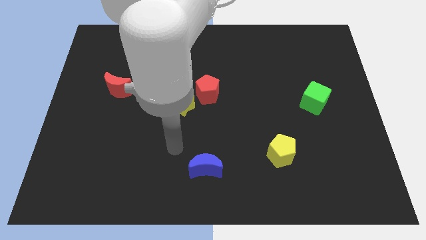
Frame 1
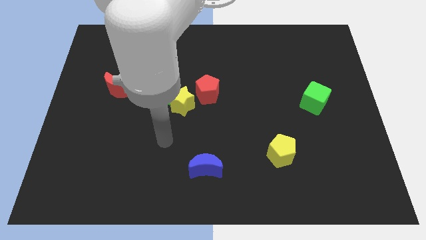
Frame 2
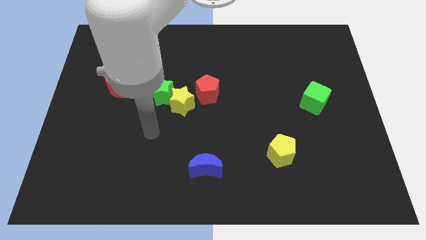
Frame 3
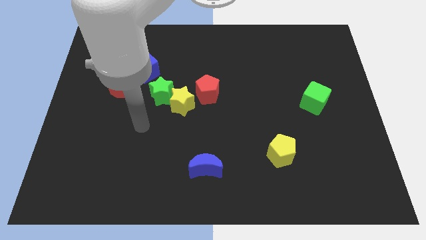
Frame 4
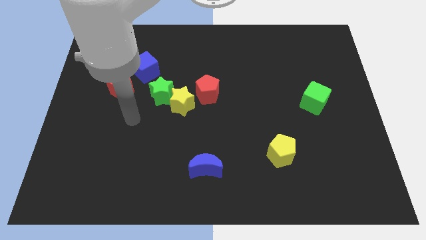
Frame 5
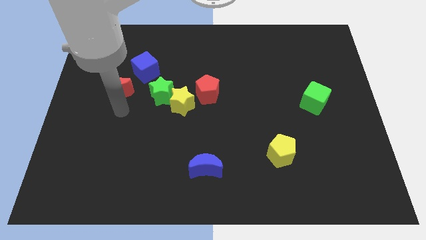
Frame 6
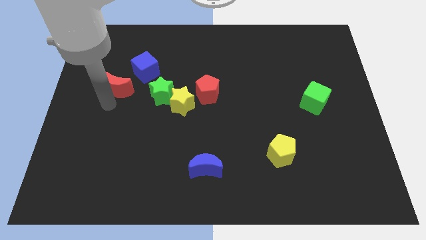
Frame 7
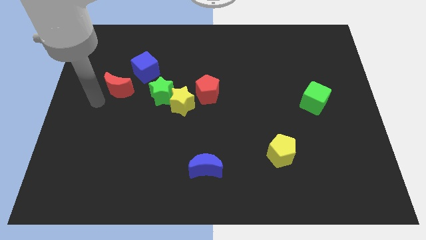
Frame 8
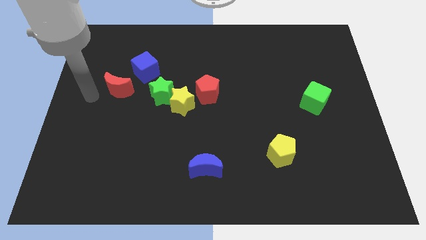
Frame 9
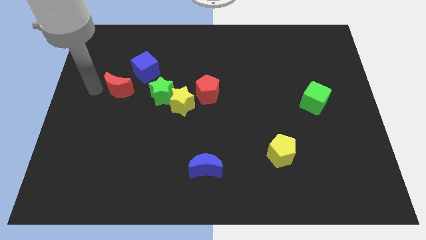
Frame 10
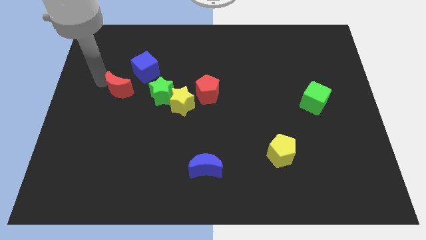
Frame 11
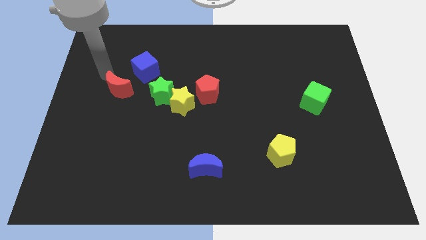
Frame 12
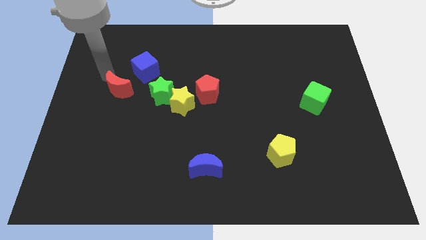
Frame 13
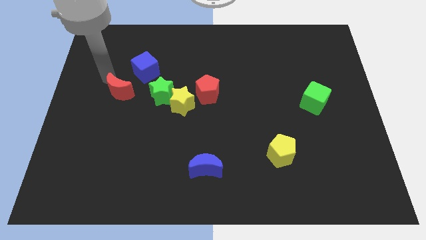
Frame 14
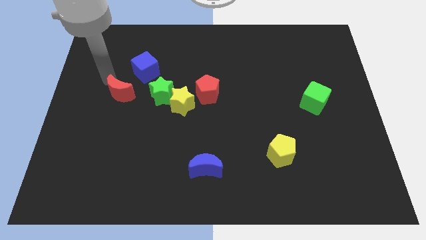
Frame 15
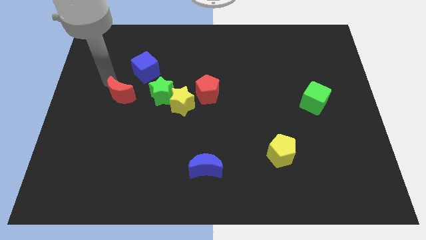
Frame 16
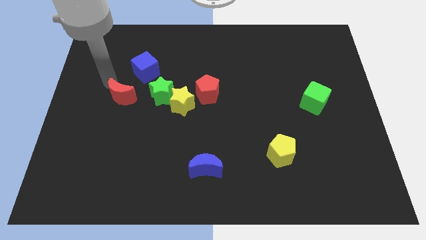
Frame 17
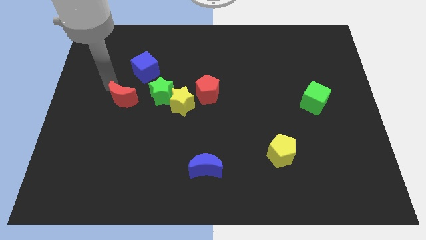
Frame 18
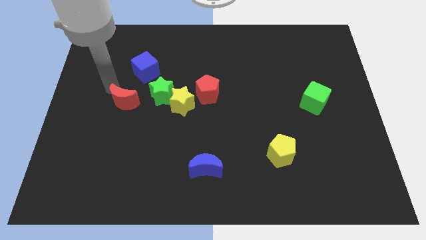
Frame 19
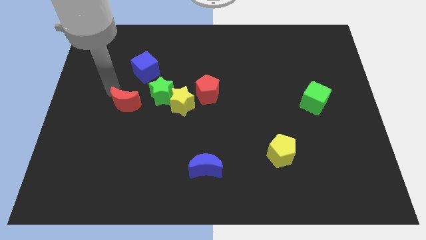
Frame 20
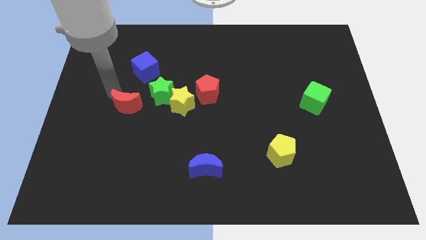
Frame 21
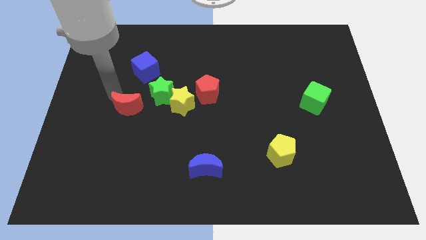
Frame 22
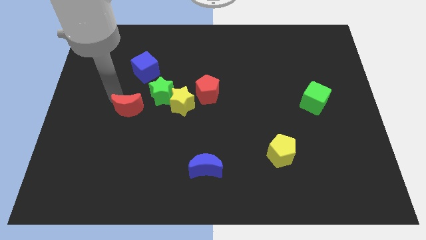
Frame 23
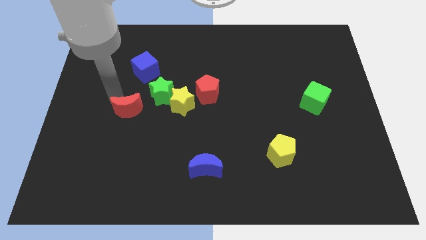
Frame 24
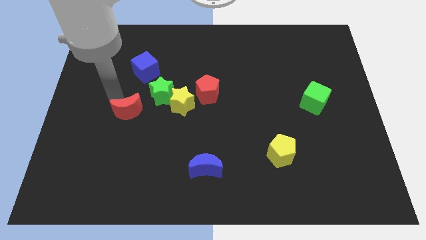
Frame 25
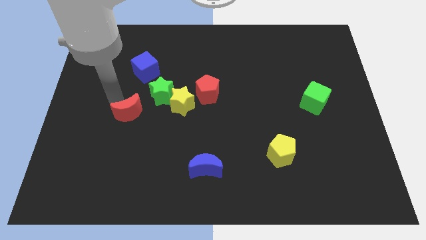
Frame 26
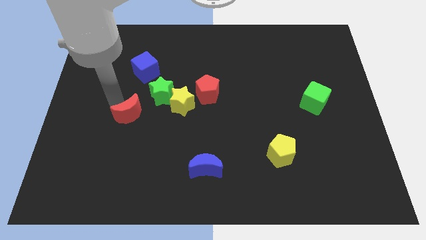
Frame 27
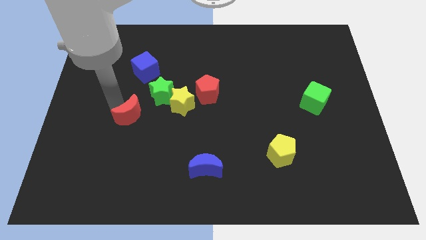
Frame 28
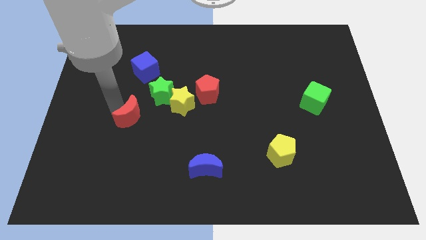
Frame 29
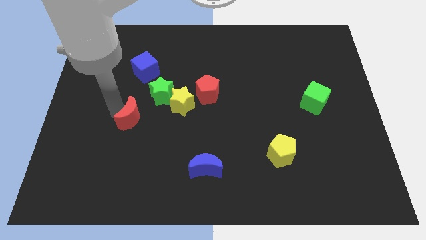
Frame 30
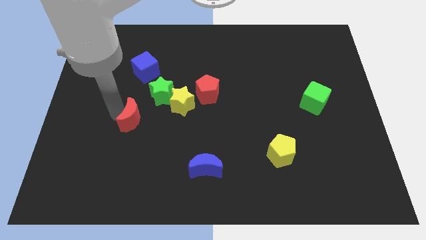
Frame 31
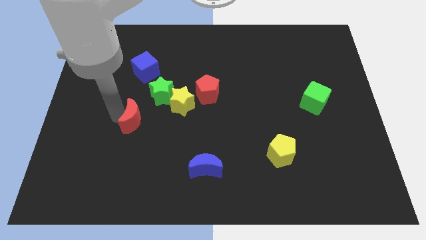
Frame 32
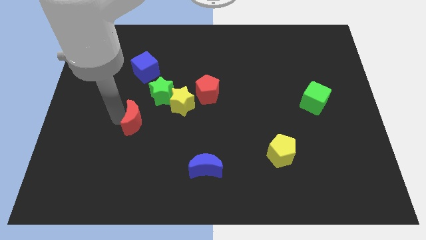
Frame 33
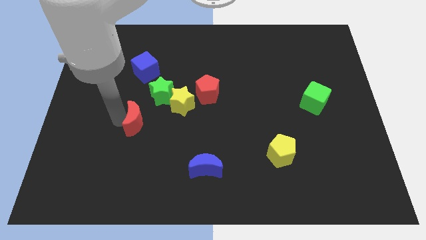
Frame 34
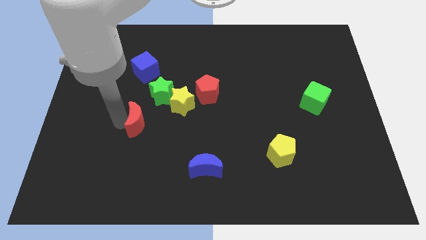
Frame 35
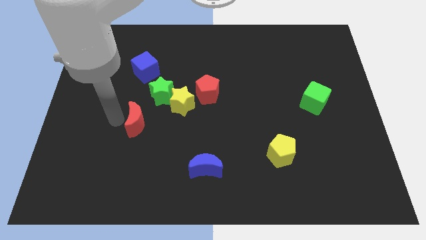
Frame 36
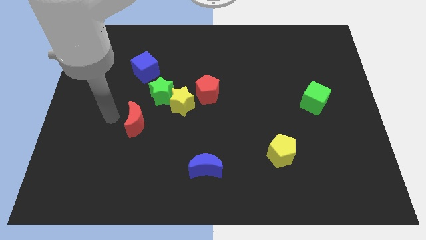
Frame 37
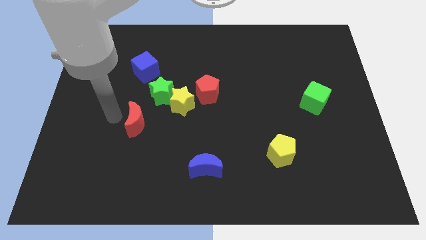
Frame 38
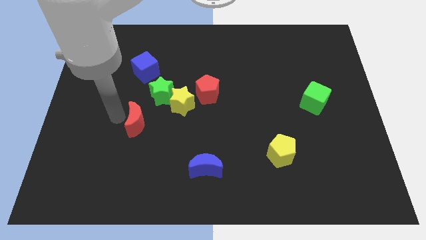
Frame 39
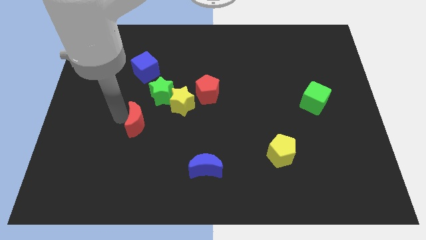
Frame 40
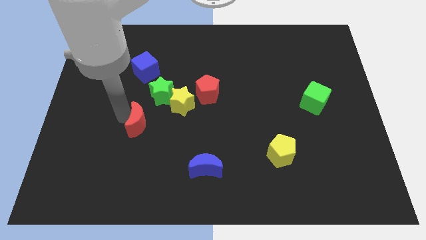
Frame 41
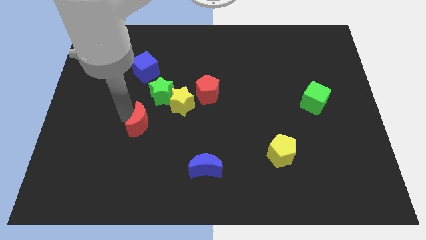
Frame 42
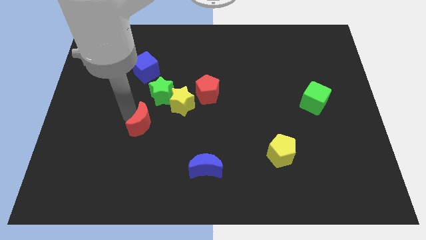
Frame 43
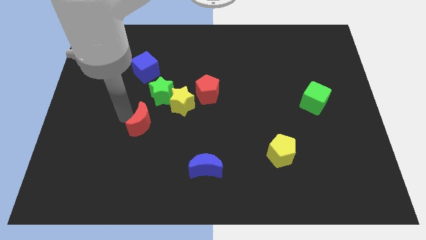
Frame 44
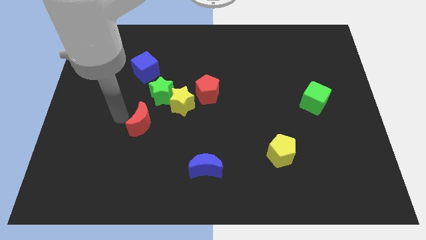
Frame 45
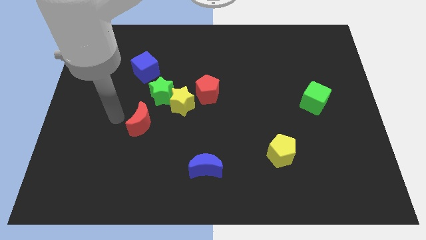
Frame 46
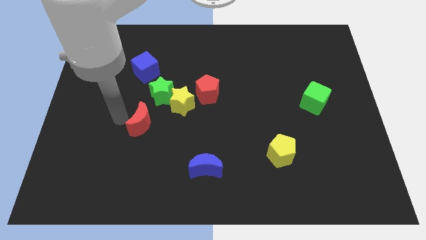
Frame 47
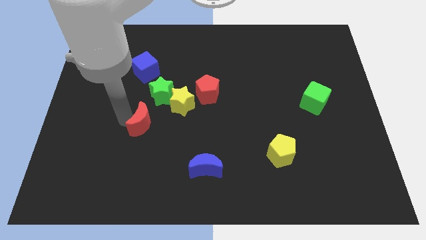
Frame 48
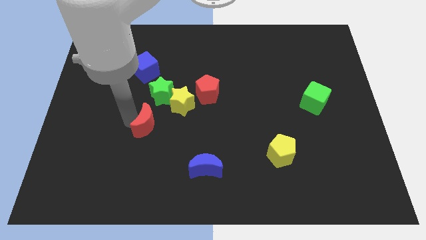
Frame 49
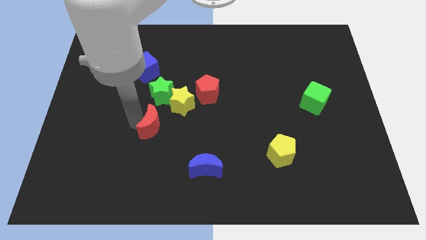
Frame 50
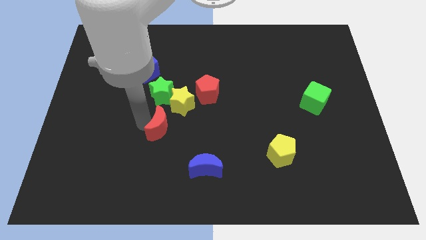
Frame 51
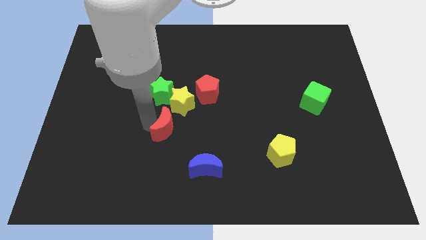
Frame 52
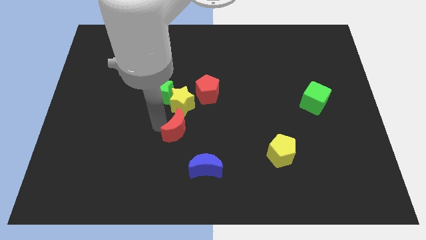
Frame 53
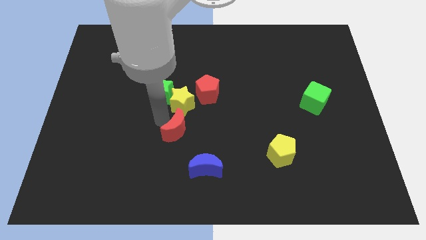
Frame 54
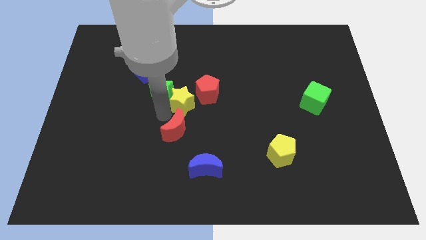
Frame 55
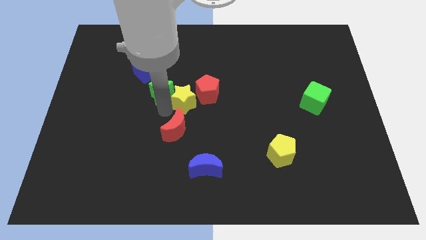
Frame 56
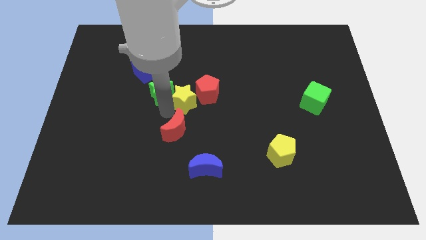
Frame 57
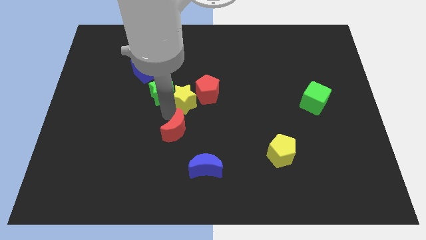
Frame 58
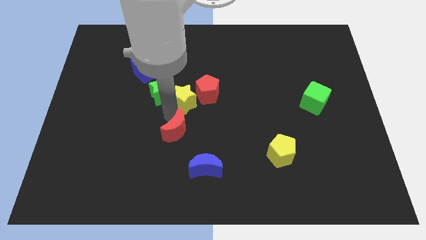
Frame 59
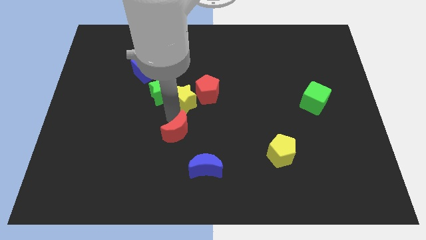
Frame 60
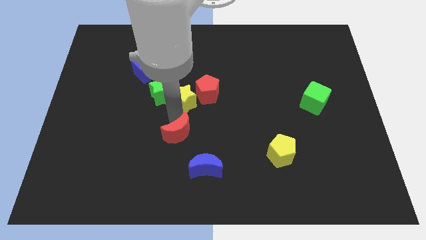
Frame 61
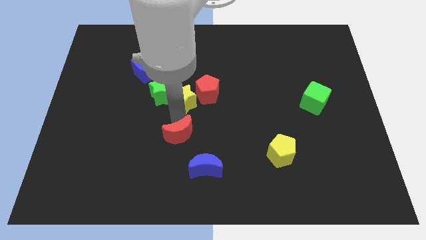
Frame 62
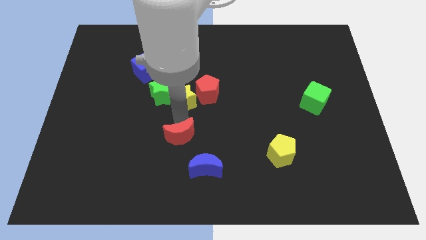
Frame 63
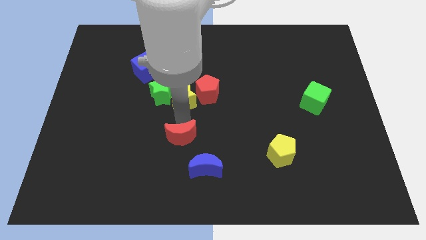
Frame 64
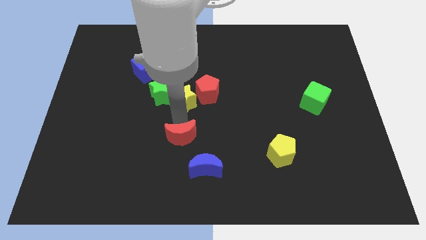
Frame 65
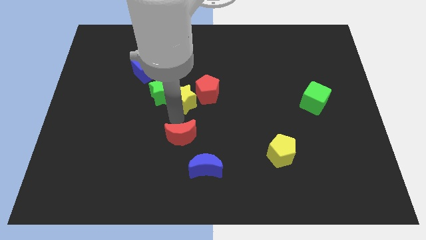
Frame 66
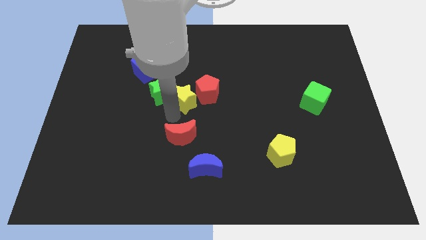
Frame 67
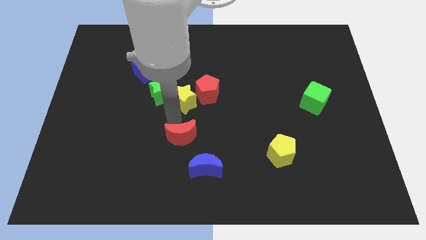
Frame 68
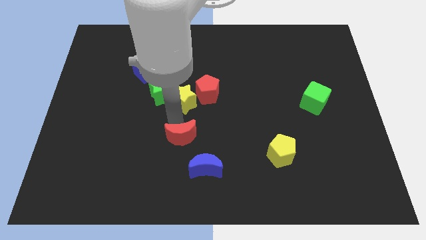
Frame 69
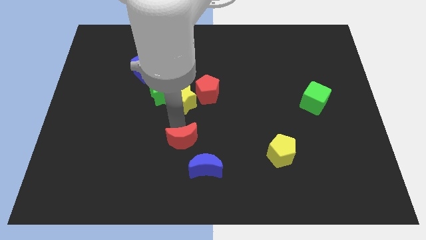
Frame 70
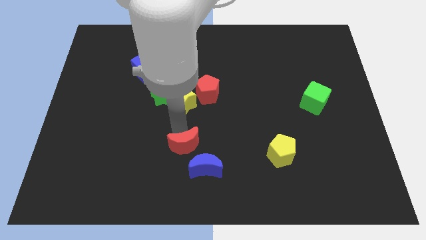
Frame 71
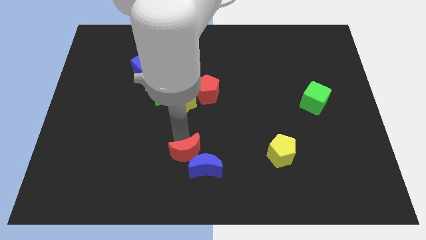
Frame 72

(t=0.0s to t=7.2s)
slide the red moon close to the blue moon
